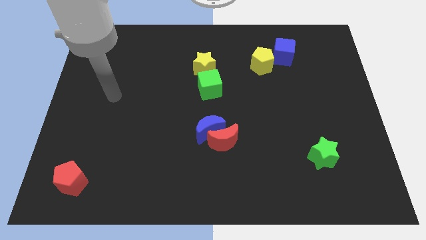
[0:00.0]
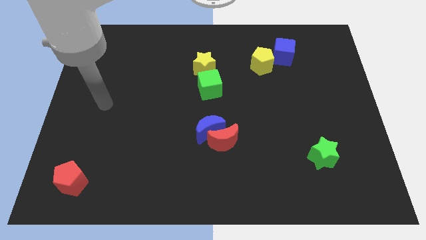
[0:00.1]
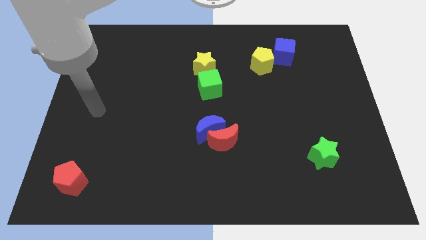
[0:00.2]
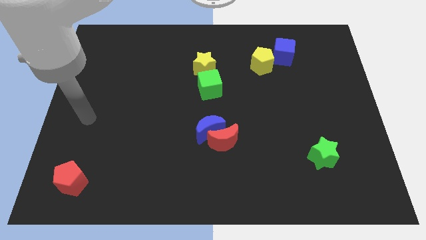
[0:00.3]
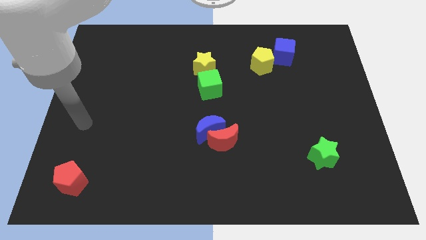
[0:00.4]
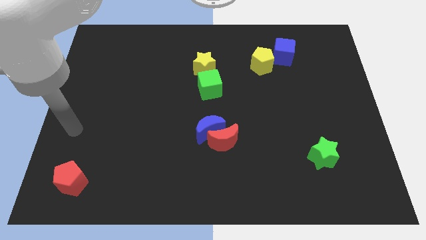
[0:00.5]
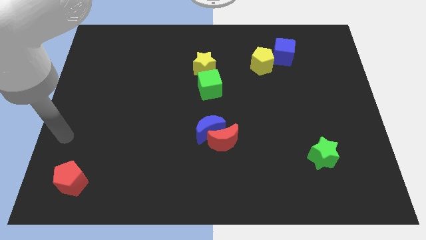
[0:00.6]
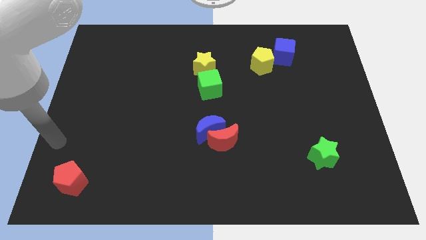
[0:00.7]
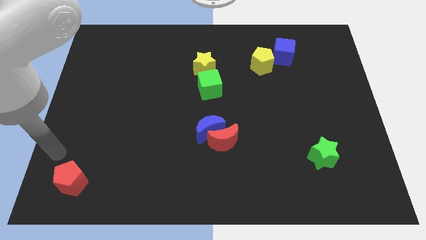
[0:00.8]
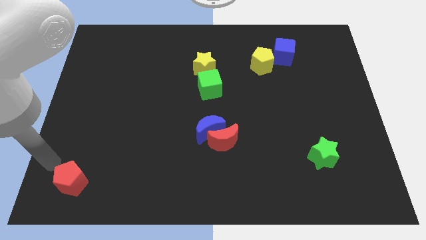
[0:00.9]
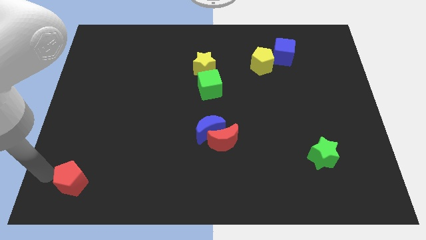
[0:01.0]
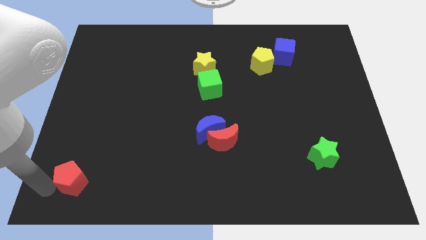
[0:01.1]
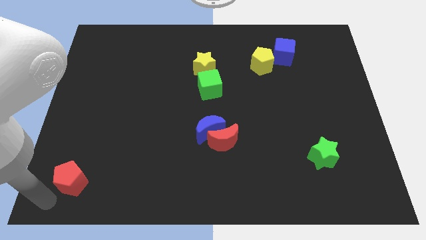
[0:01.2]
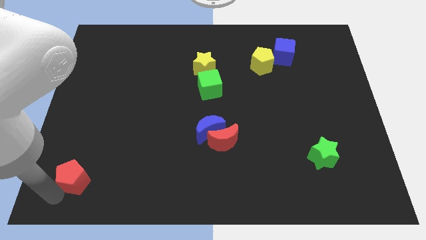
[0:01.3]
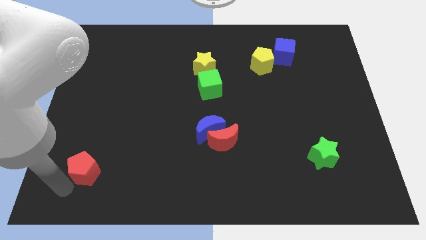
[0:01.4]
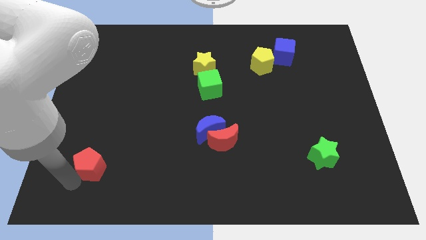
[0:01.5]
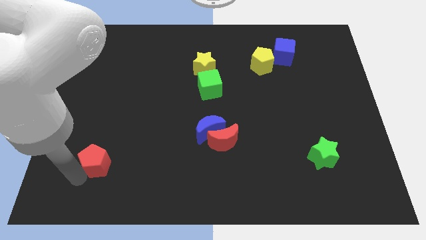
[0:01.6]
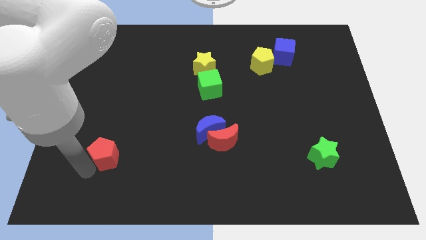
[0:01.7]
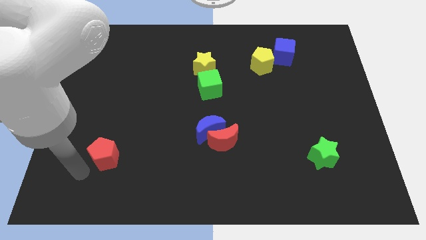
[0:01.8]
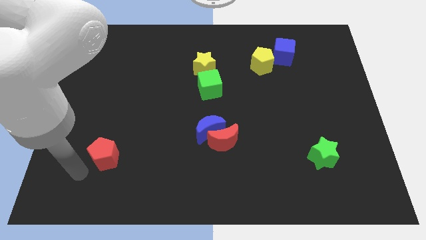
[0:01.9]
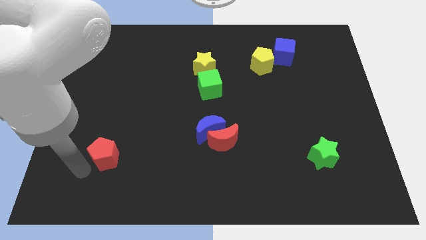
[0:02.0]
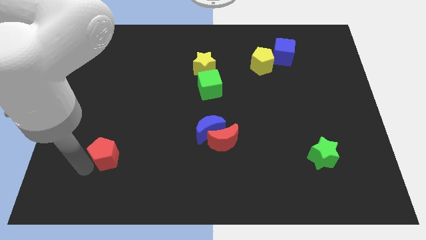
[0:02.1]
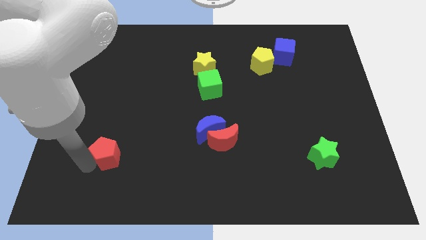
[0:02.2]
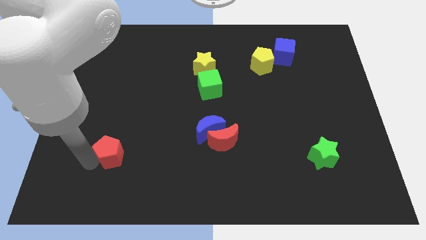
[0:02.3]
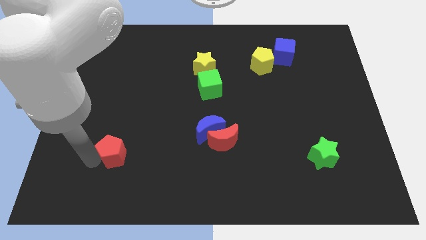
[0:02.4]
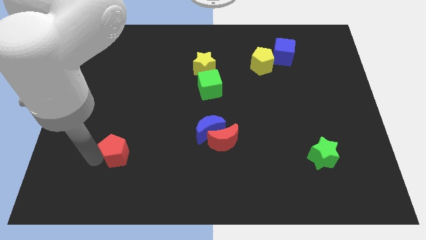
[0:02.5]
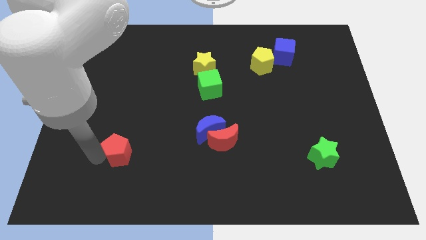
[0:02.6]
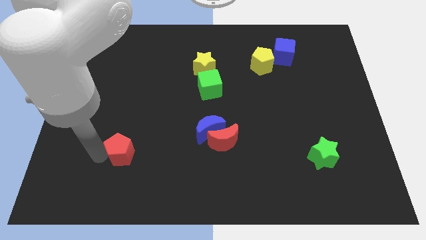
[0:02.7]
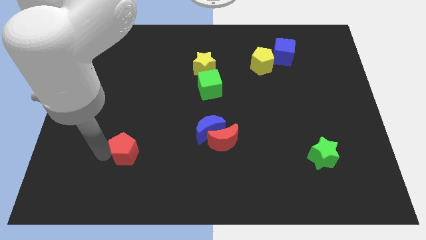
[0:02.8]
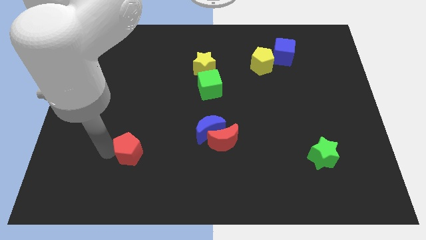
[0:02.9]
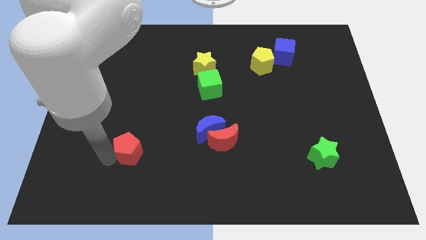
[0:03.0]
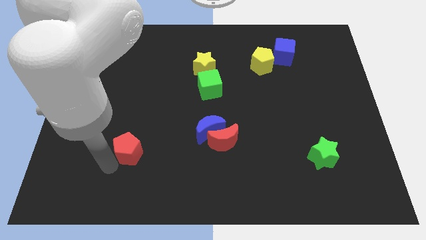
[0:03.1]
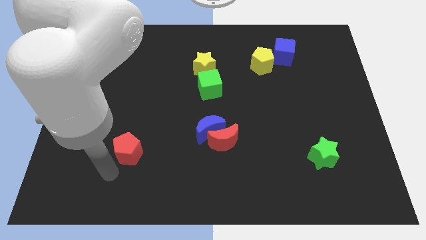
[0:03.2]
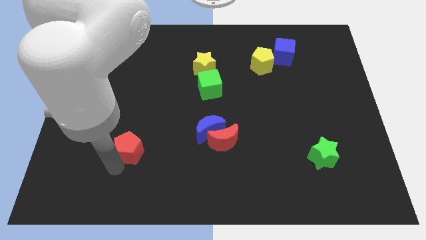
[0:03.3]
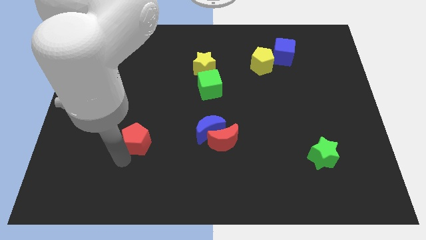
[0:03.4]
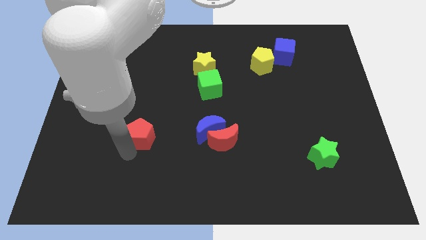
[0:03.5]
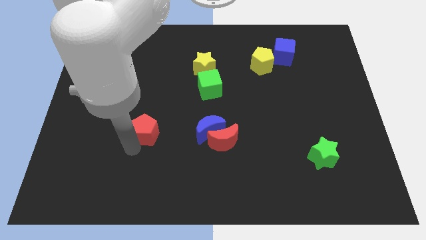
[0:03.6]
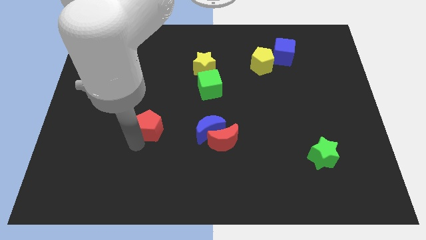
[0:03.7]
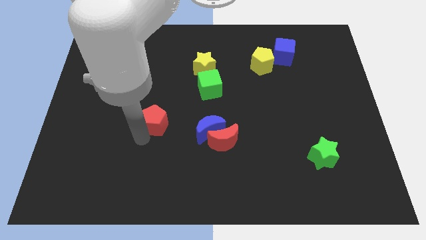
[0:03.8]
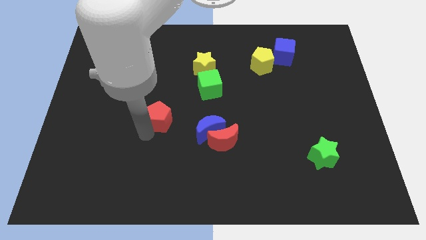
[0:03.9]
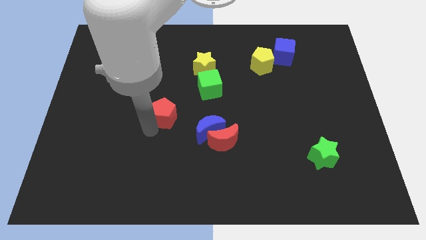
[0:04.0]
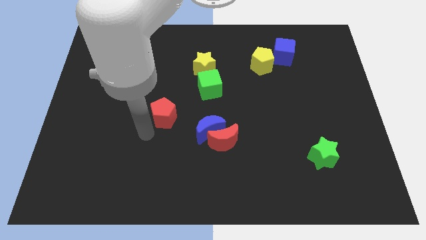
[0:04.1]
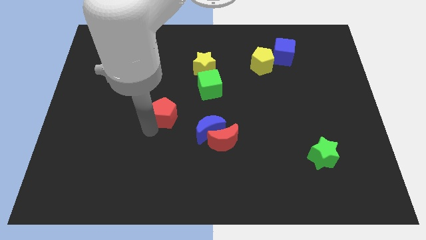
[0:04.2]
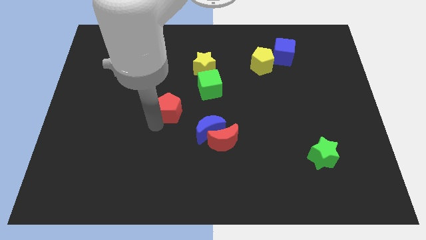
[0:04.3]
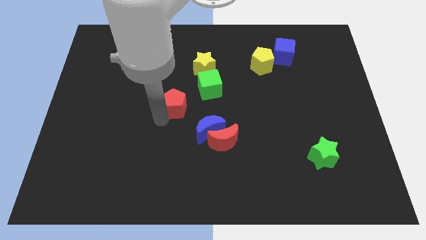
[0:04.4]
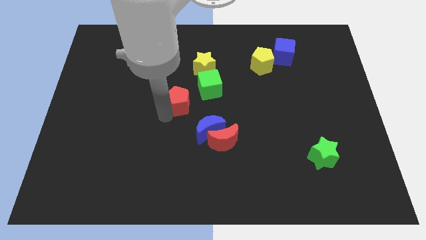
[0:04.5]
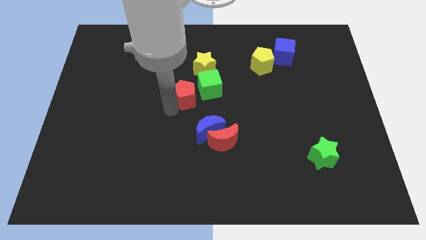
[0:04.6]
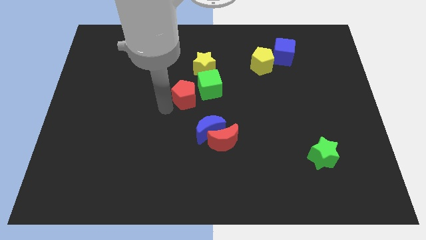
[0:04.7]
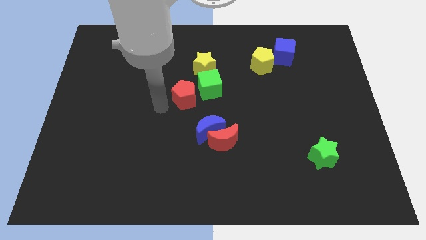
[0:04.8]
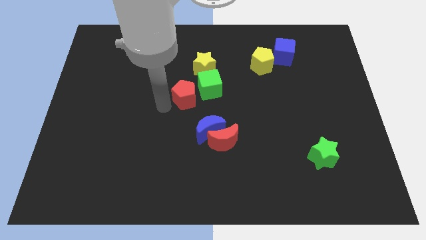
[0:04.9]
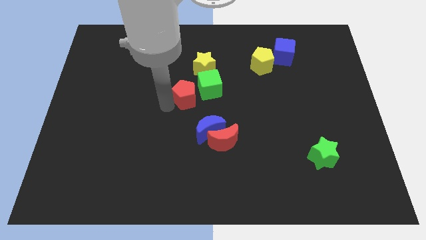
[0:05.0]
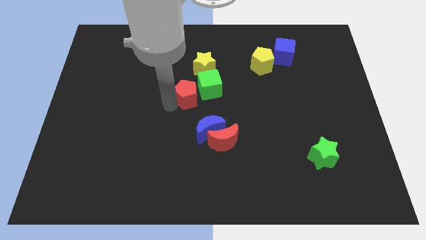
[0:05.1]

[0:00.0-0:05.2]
move the red pentagon towards the green cube

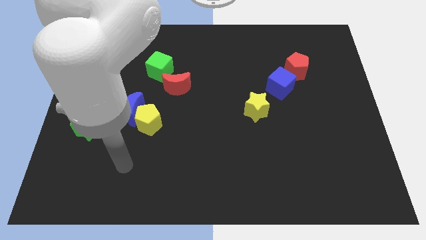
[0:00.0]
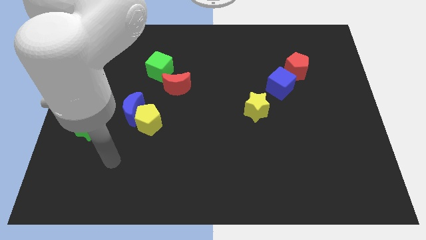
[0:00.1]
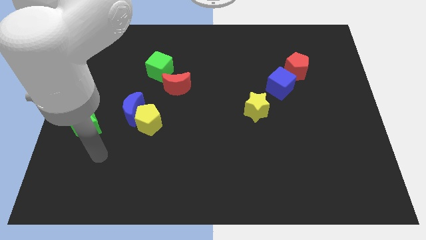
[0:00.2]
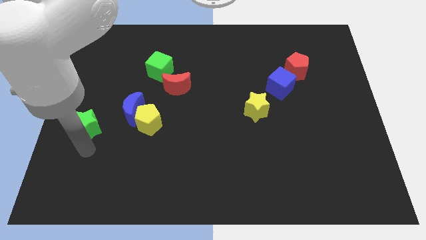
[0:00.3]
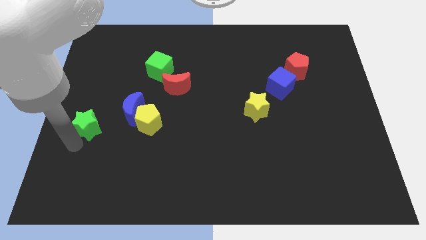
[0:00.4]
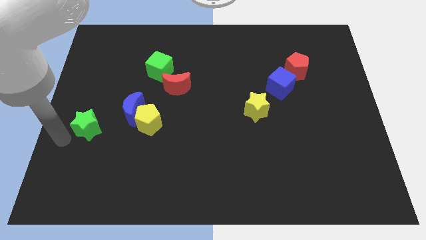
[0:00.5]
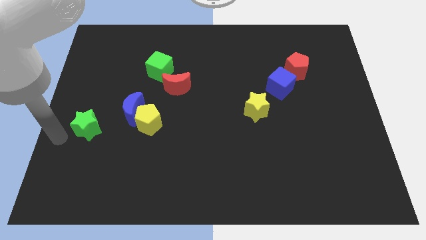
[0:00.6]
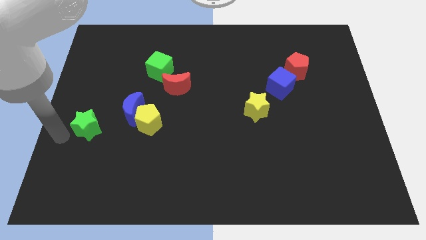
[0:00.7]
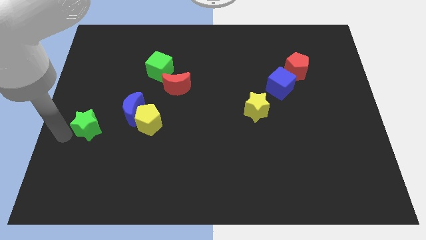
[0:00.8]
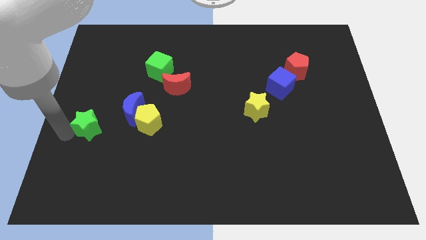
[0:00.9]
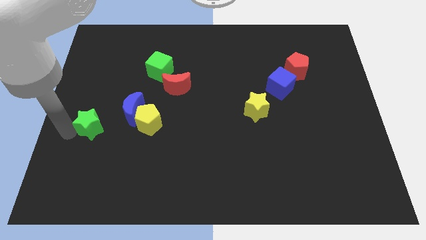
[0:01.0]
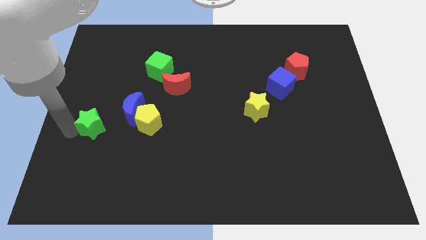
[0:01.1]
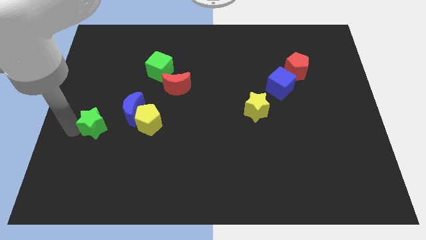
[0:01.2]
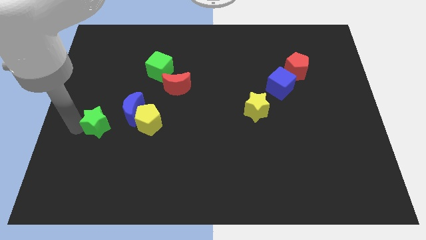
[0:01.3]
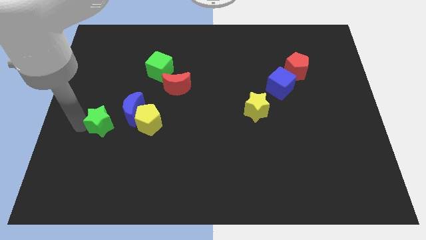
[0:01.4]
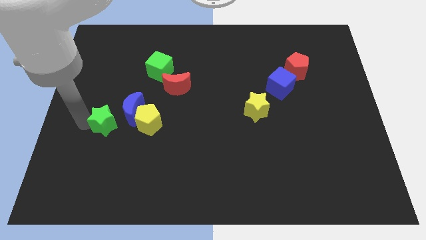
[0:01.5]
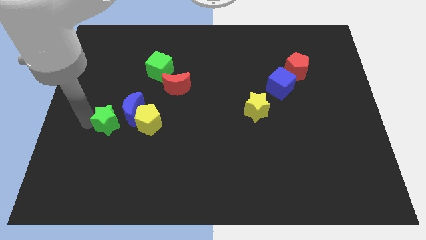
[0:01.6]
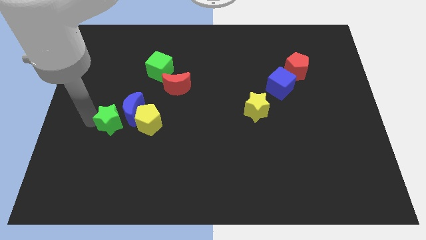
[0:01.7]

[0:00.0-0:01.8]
slide the green star towards the blue moon

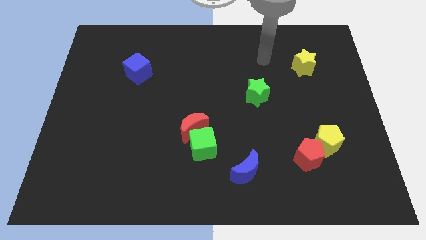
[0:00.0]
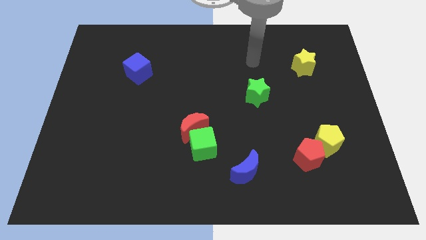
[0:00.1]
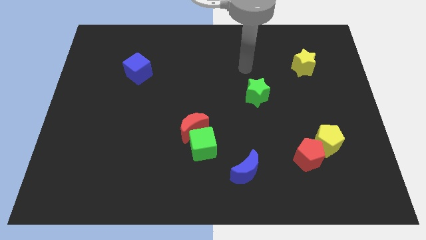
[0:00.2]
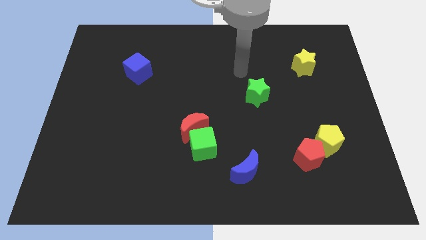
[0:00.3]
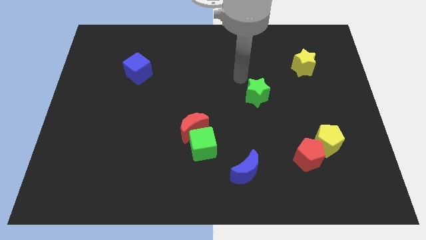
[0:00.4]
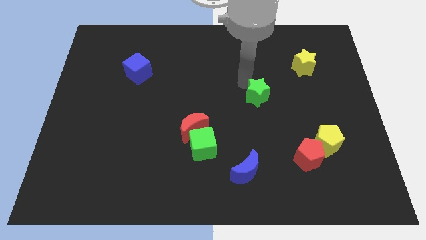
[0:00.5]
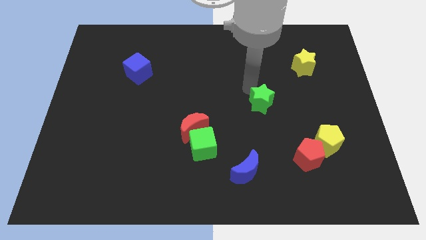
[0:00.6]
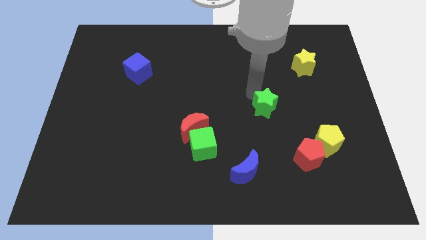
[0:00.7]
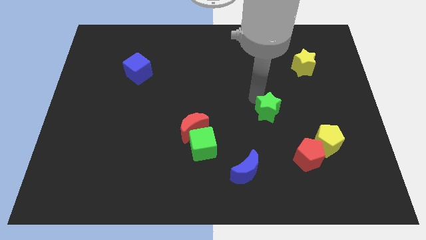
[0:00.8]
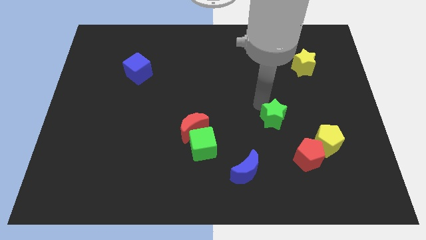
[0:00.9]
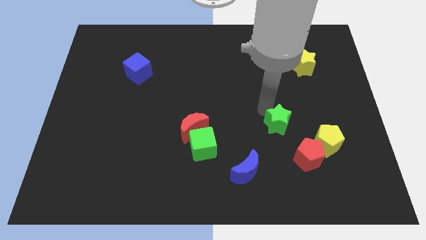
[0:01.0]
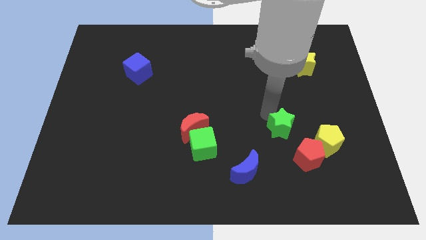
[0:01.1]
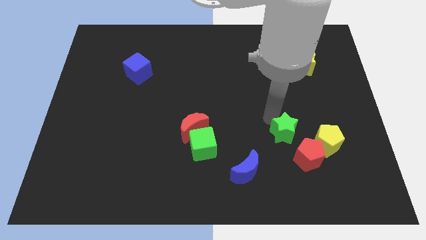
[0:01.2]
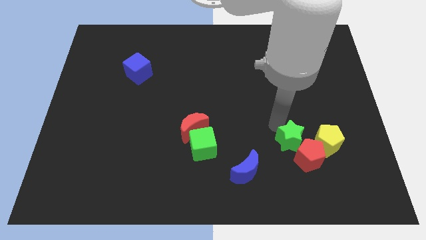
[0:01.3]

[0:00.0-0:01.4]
slide the green star to the red pentagon
